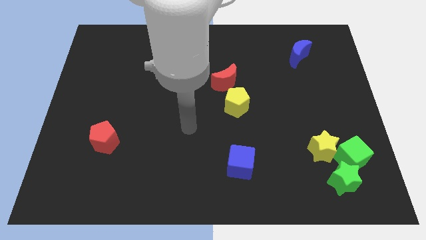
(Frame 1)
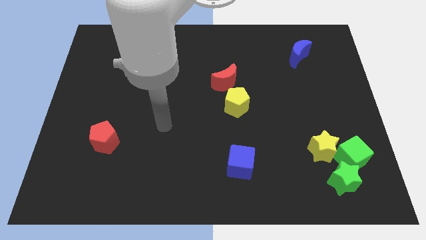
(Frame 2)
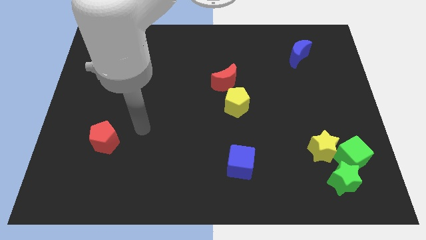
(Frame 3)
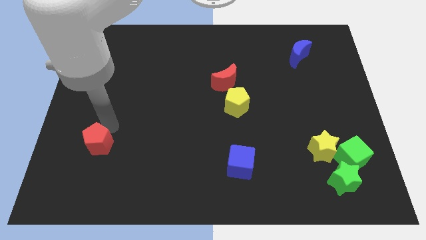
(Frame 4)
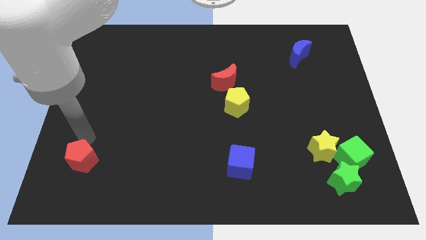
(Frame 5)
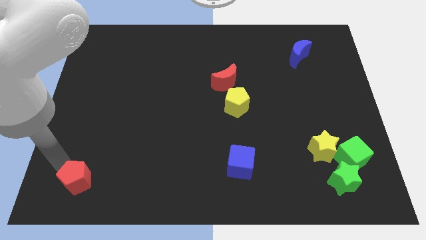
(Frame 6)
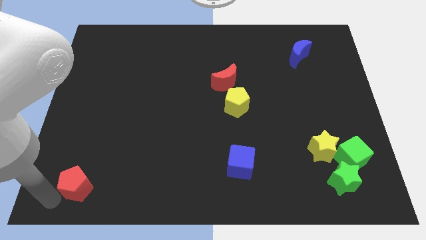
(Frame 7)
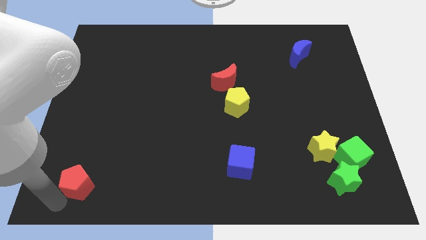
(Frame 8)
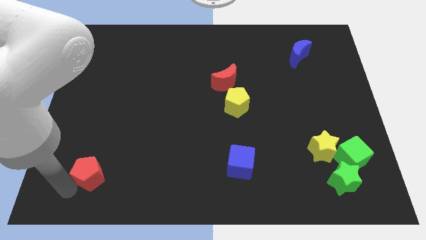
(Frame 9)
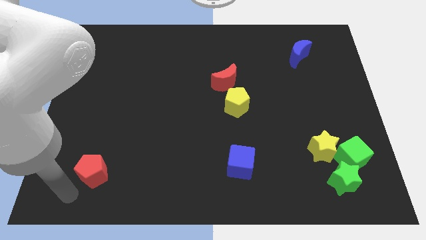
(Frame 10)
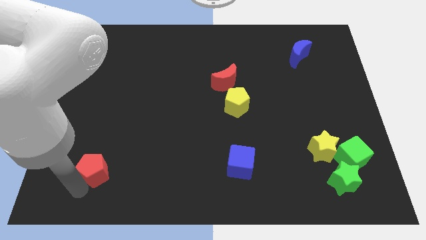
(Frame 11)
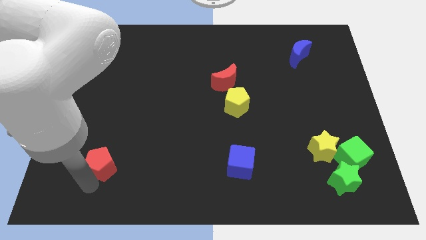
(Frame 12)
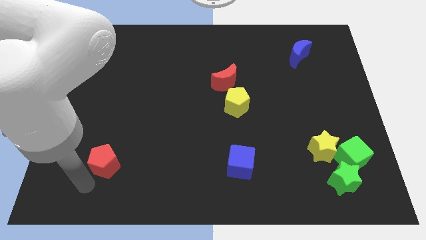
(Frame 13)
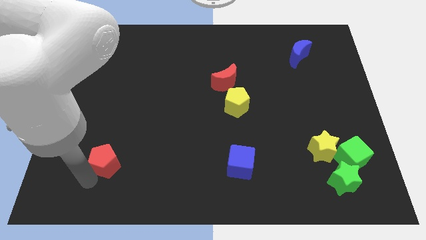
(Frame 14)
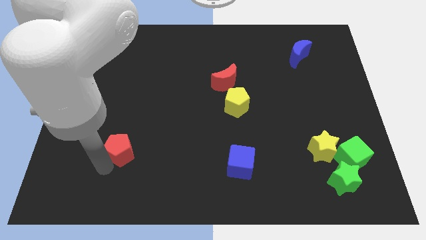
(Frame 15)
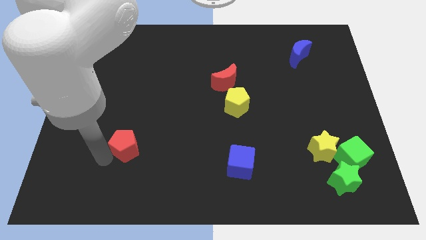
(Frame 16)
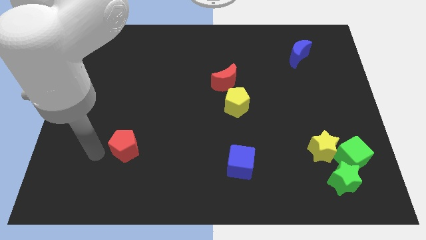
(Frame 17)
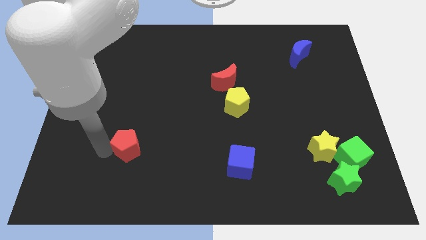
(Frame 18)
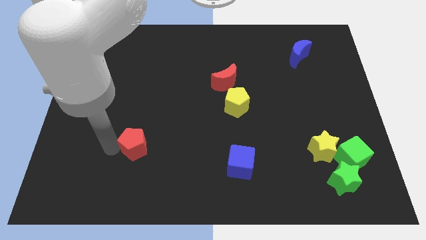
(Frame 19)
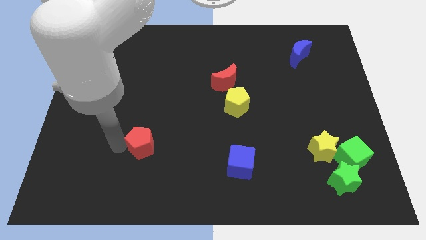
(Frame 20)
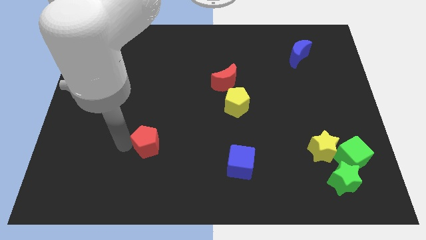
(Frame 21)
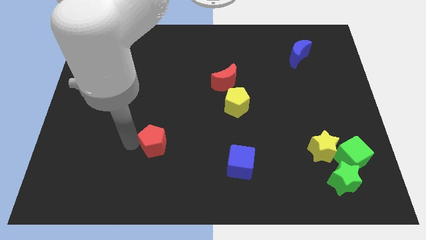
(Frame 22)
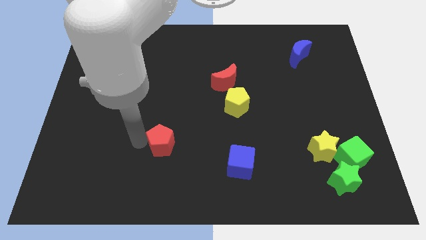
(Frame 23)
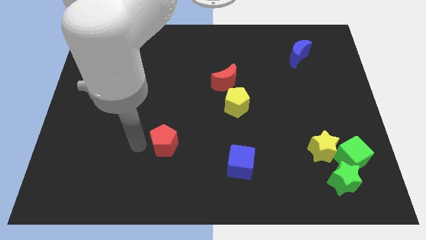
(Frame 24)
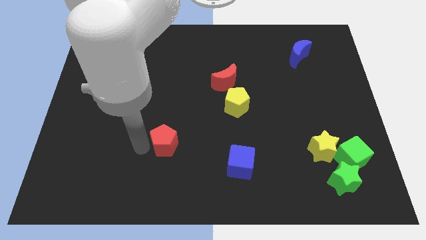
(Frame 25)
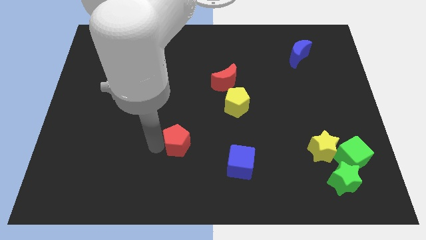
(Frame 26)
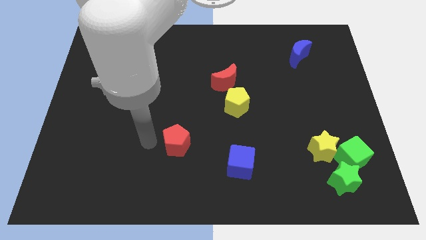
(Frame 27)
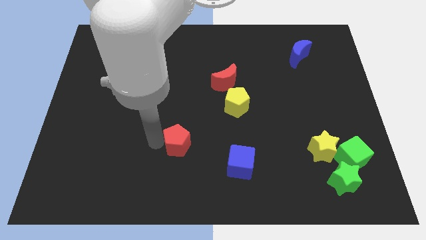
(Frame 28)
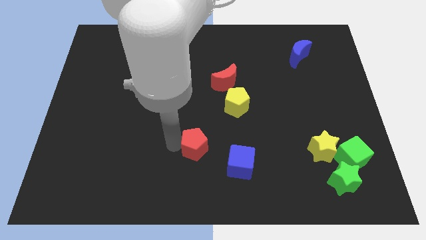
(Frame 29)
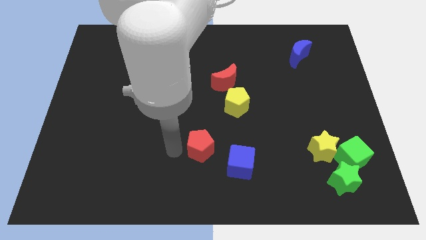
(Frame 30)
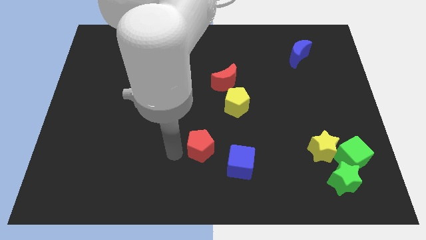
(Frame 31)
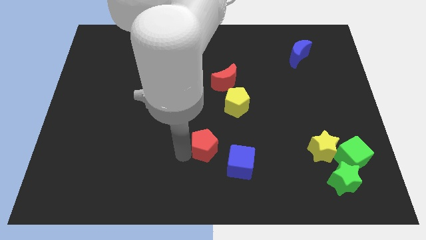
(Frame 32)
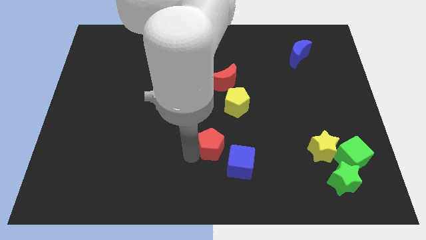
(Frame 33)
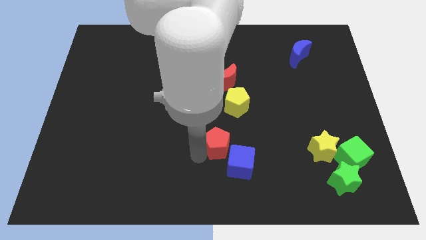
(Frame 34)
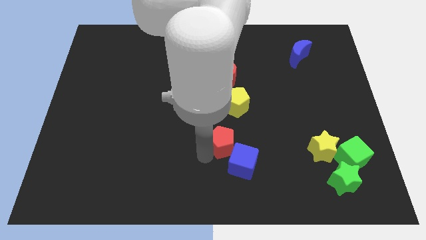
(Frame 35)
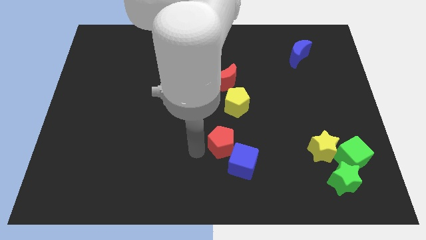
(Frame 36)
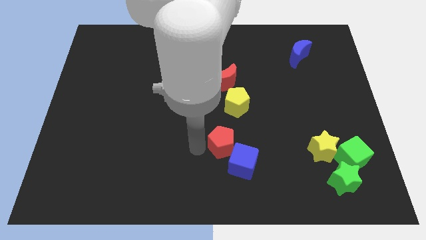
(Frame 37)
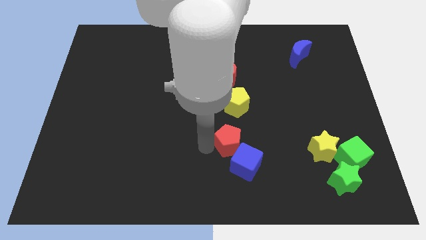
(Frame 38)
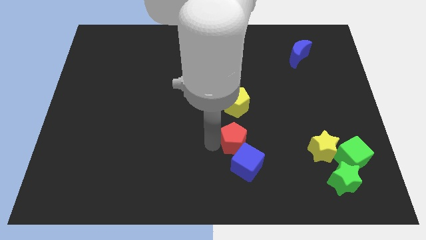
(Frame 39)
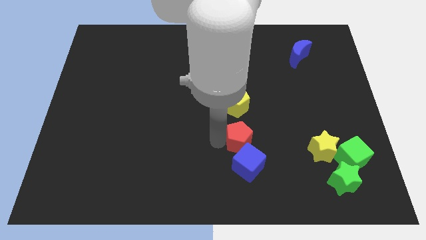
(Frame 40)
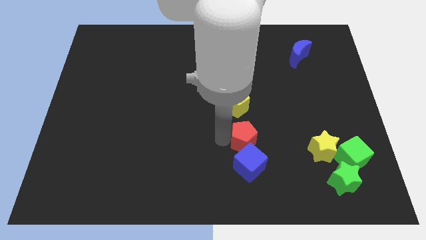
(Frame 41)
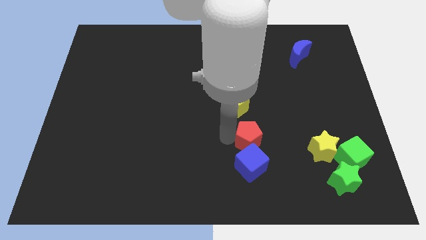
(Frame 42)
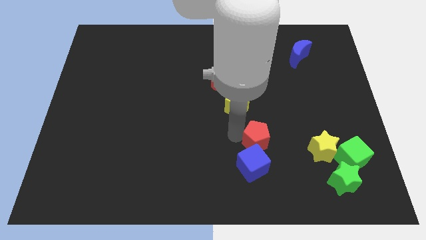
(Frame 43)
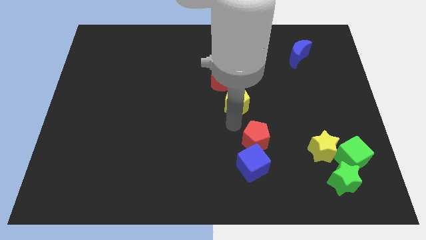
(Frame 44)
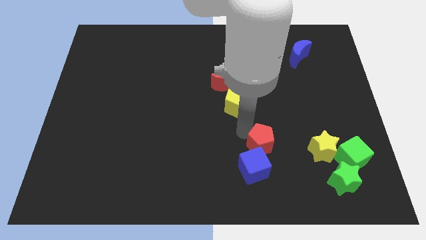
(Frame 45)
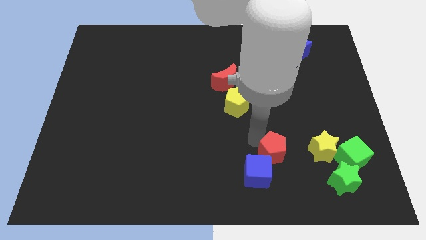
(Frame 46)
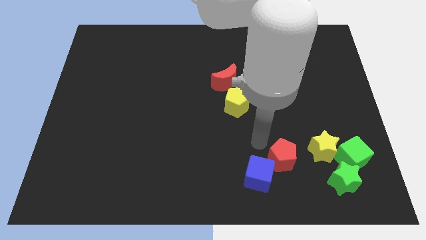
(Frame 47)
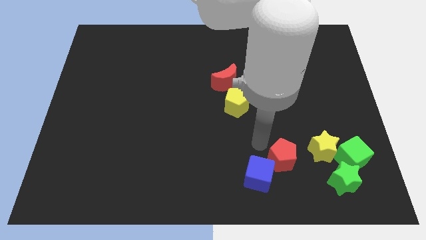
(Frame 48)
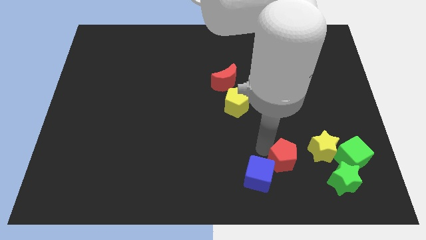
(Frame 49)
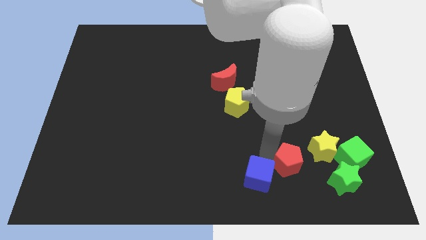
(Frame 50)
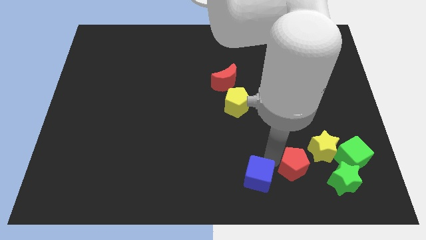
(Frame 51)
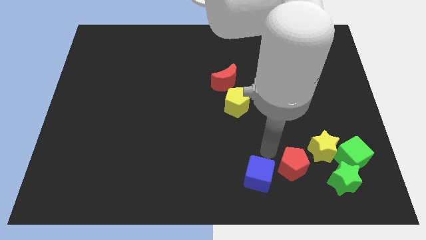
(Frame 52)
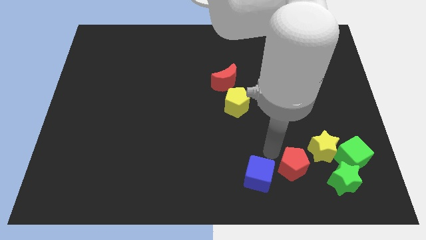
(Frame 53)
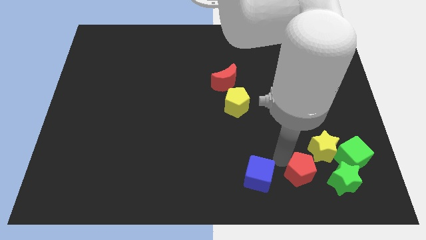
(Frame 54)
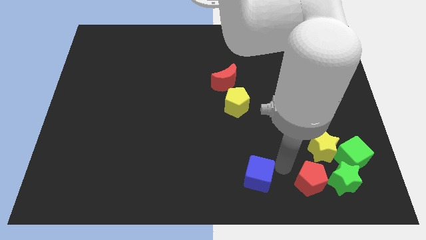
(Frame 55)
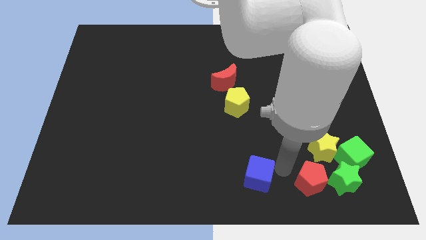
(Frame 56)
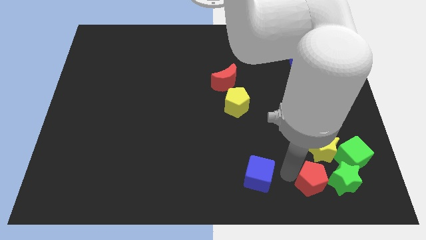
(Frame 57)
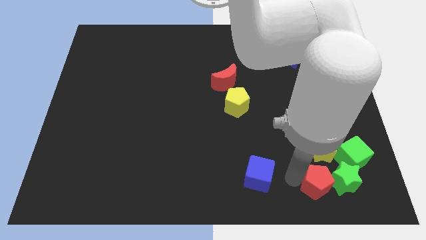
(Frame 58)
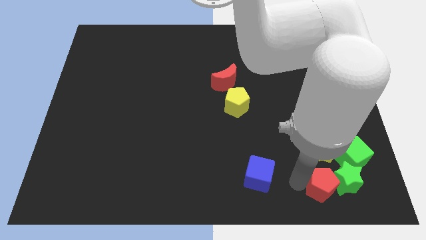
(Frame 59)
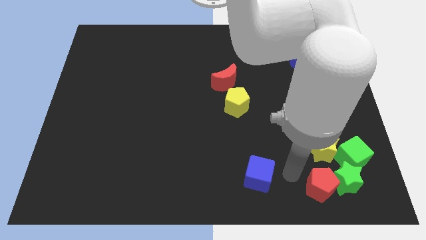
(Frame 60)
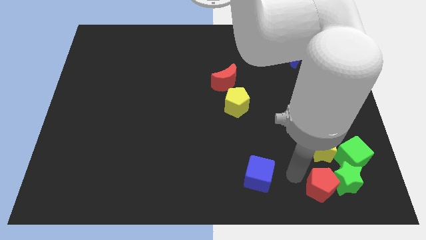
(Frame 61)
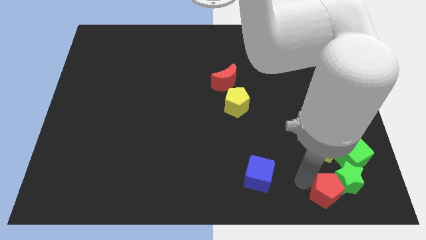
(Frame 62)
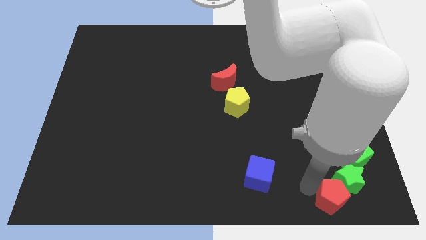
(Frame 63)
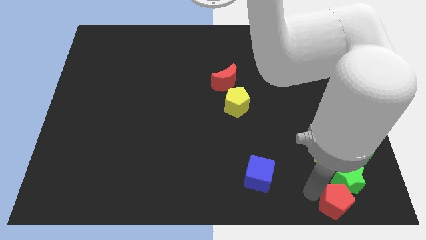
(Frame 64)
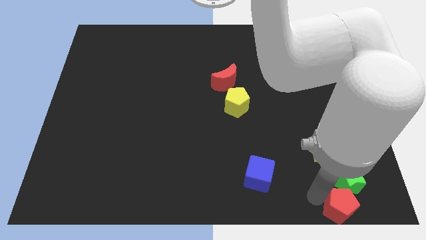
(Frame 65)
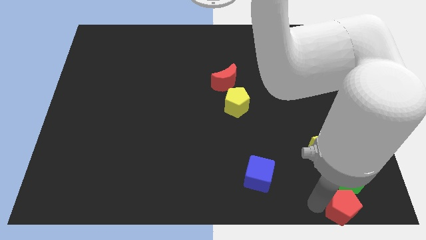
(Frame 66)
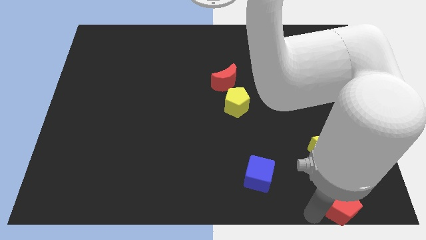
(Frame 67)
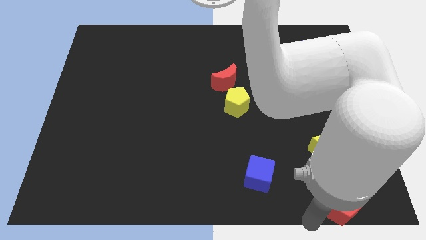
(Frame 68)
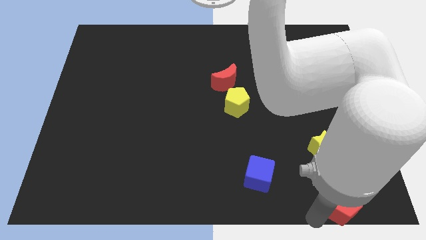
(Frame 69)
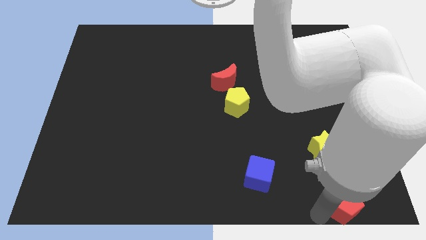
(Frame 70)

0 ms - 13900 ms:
slide the red pentagon to the bottom right of the board
